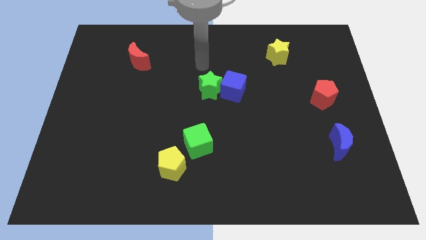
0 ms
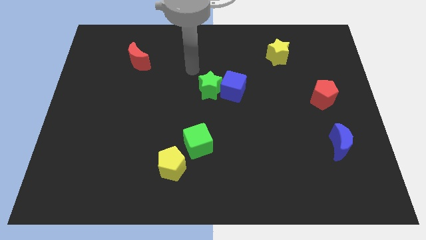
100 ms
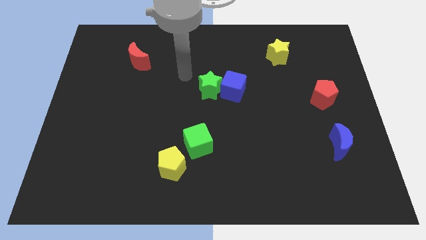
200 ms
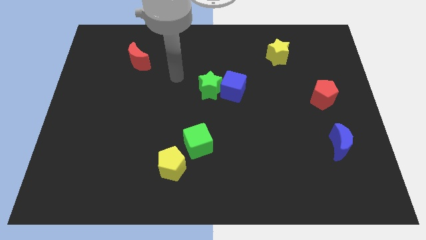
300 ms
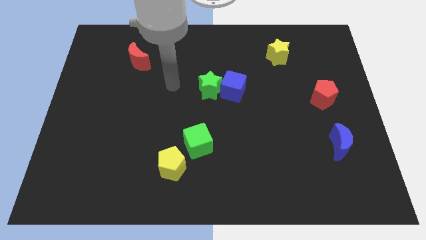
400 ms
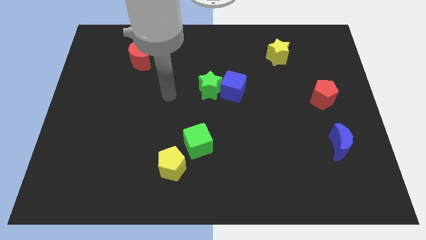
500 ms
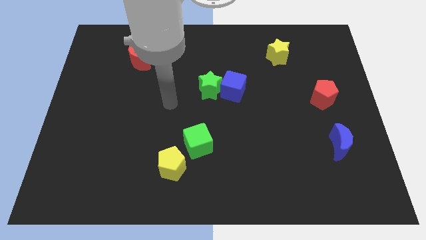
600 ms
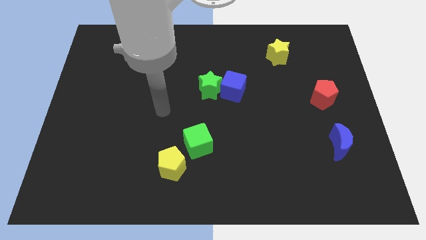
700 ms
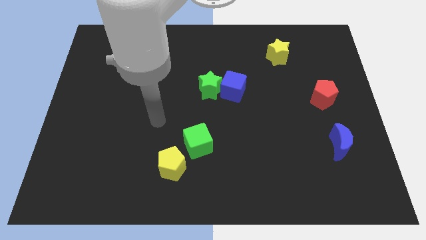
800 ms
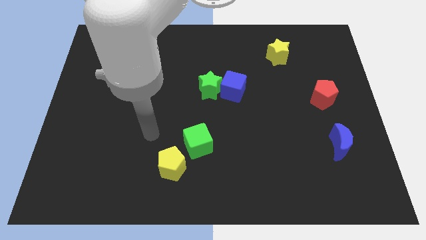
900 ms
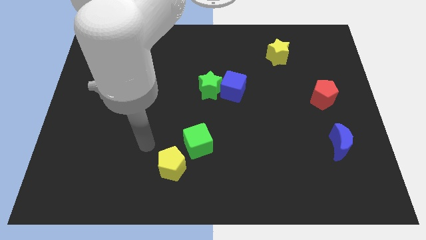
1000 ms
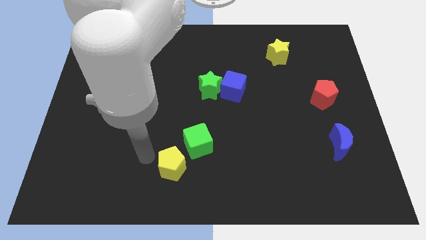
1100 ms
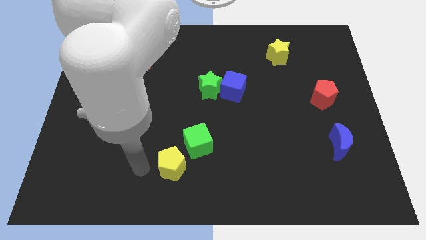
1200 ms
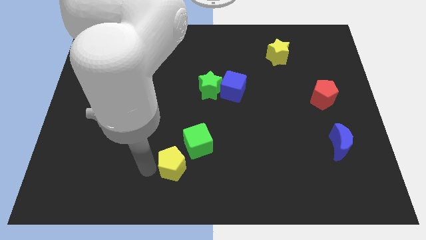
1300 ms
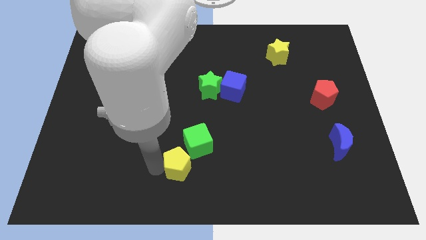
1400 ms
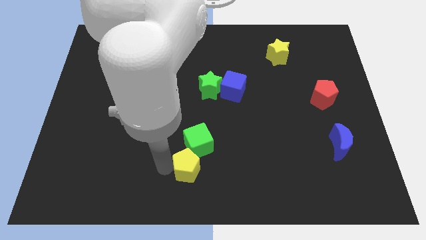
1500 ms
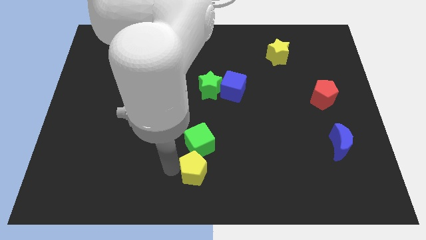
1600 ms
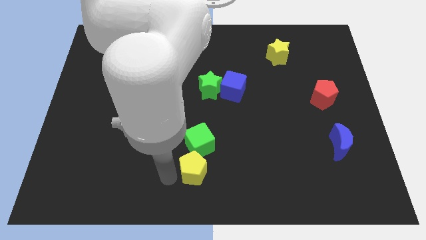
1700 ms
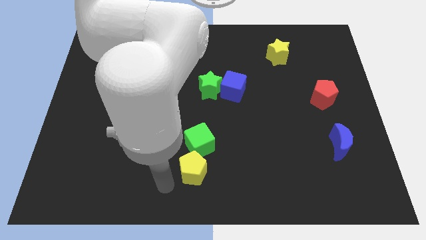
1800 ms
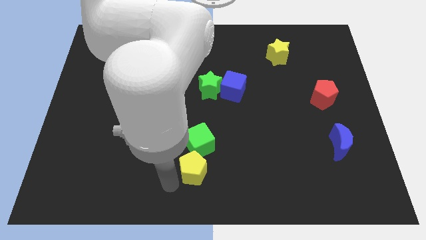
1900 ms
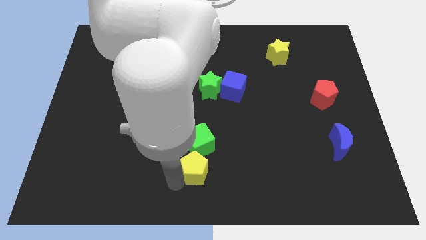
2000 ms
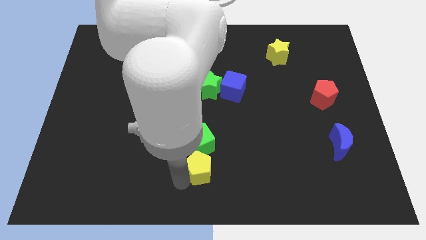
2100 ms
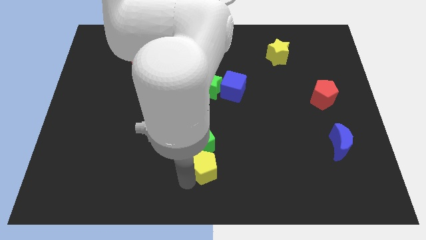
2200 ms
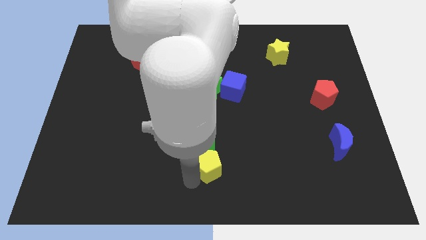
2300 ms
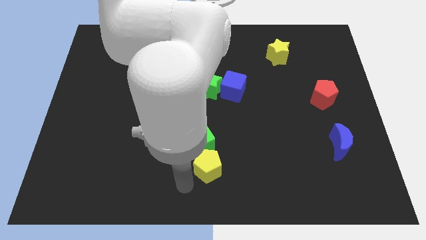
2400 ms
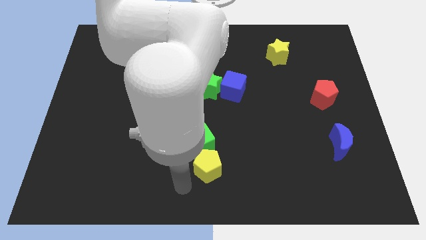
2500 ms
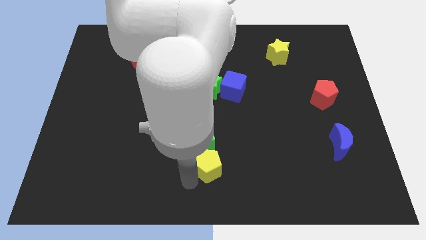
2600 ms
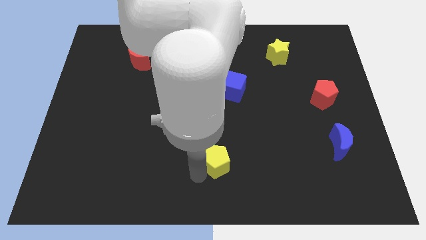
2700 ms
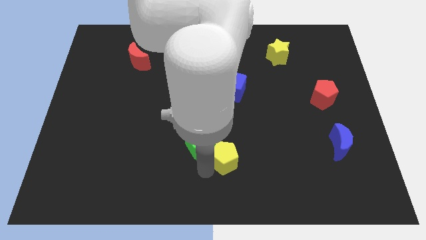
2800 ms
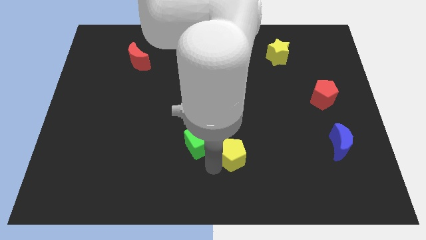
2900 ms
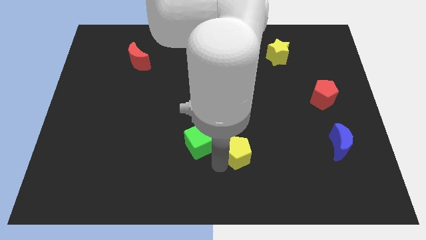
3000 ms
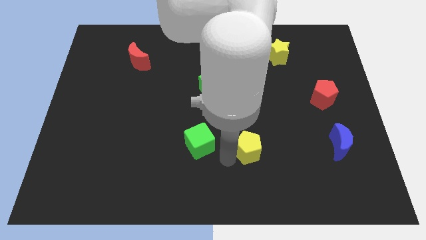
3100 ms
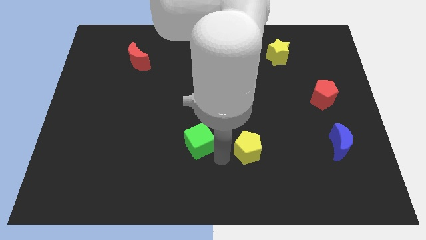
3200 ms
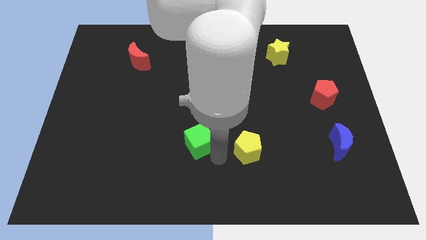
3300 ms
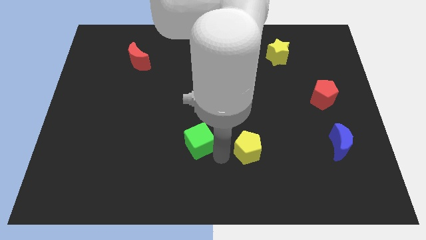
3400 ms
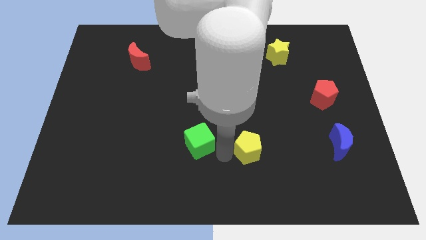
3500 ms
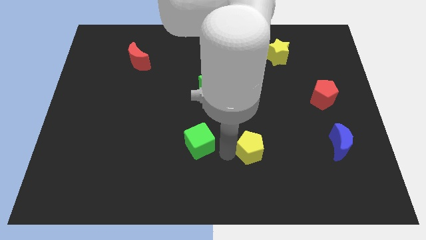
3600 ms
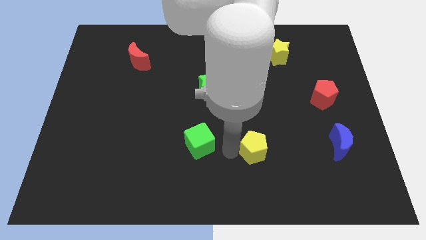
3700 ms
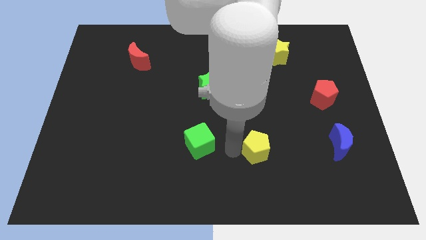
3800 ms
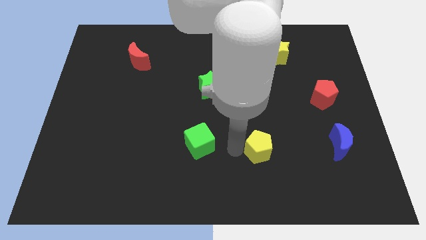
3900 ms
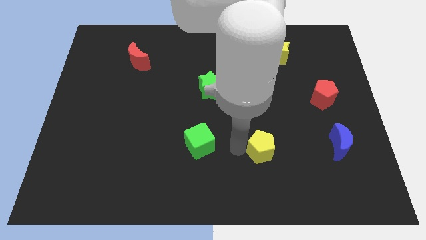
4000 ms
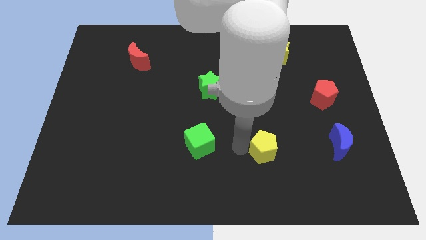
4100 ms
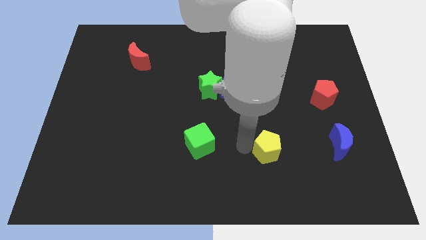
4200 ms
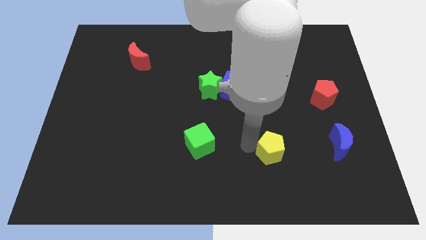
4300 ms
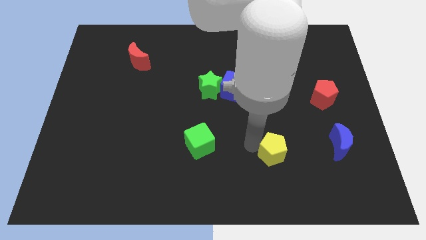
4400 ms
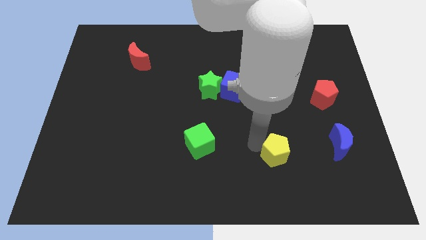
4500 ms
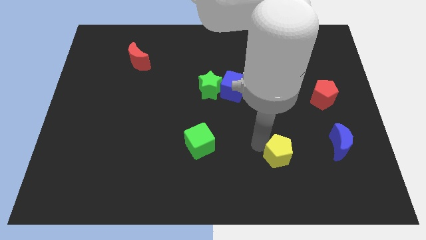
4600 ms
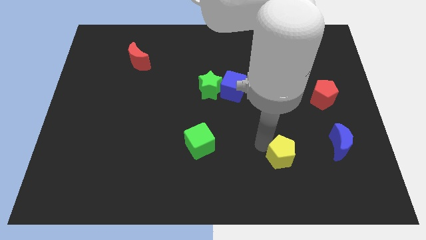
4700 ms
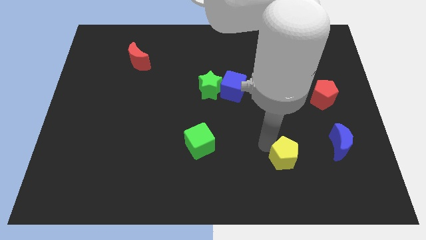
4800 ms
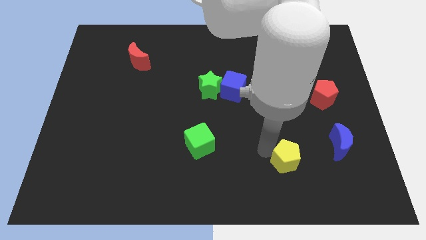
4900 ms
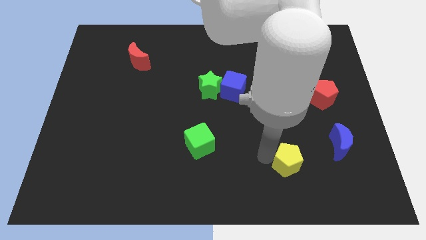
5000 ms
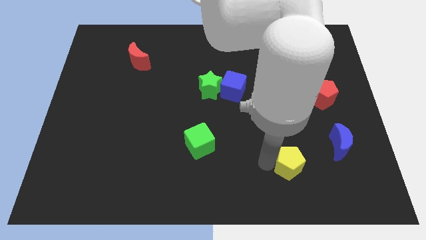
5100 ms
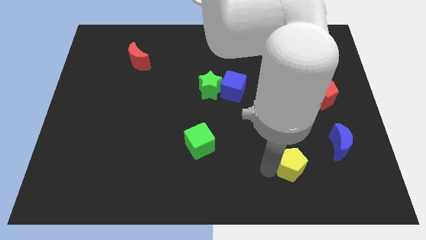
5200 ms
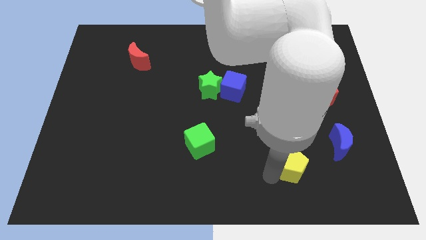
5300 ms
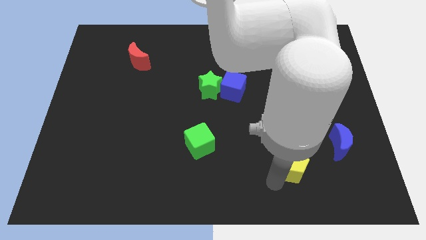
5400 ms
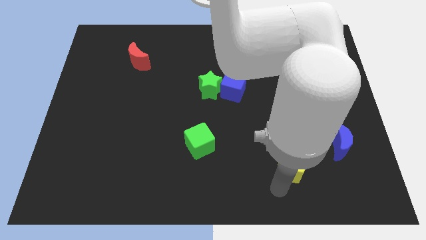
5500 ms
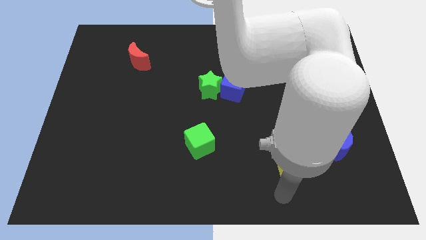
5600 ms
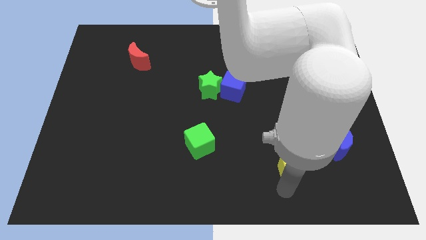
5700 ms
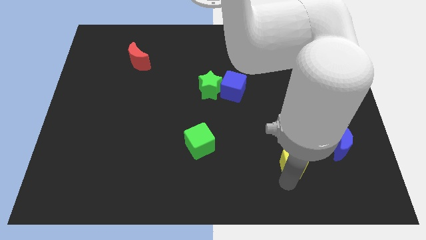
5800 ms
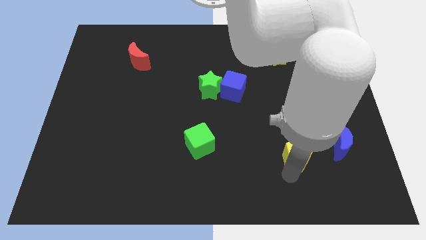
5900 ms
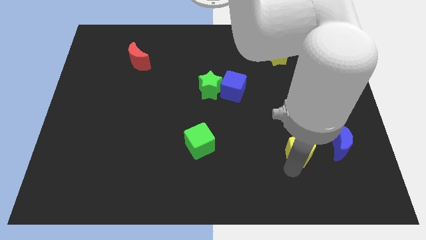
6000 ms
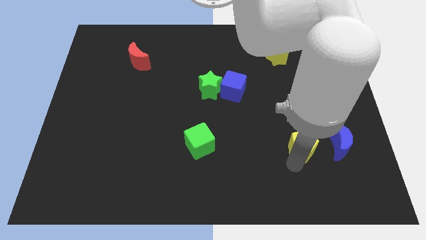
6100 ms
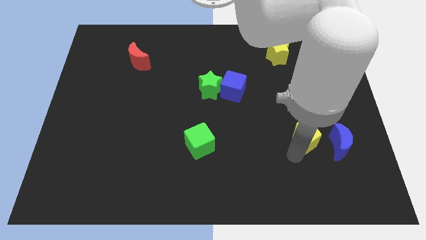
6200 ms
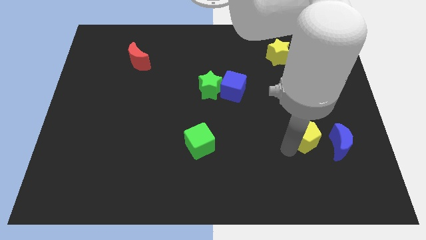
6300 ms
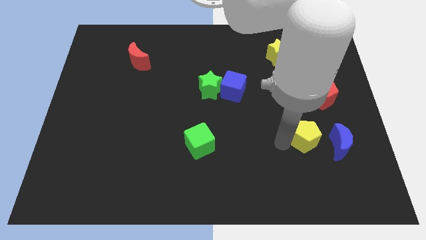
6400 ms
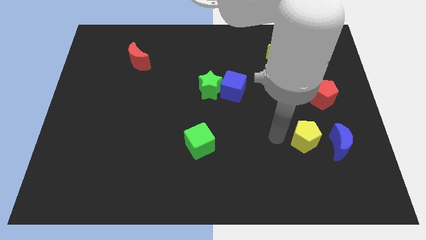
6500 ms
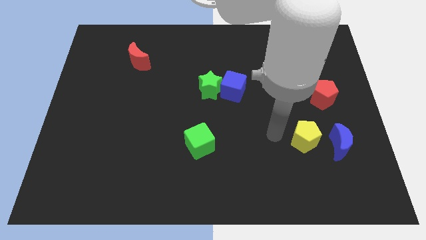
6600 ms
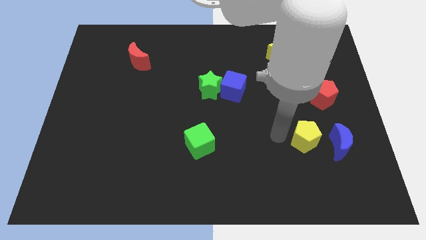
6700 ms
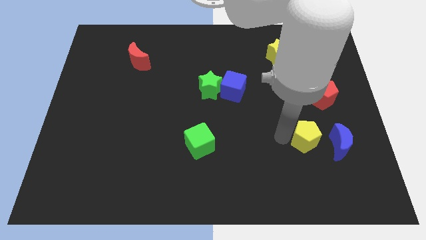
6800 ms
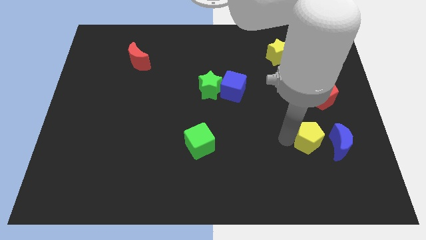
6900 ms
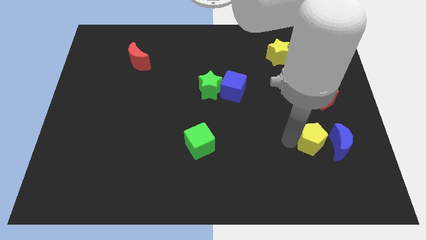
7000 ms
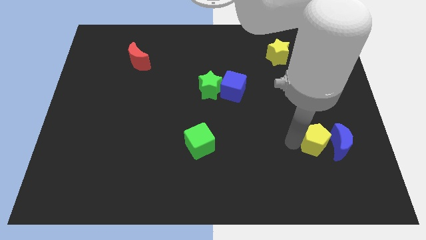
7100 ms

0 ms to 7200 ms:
move the yellow pentagon close to the blue moon
